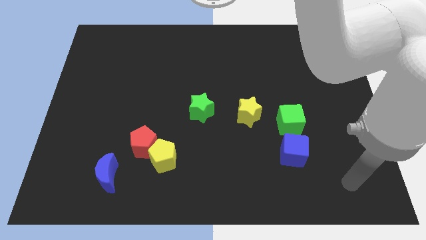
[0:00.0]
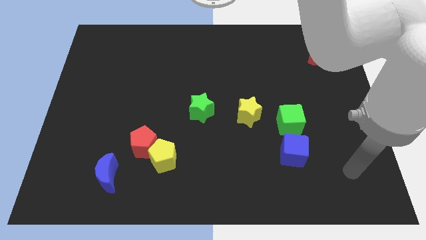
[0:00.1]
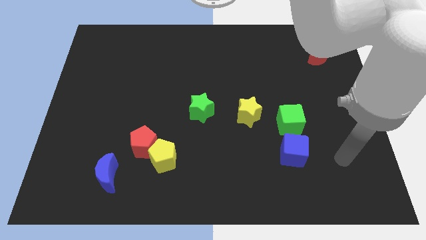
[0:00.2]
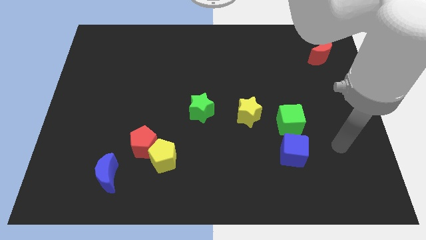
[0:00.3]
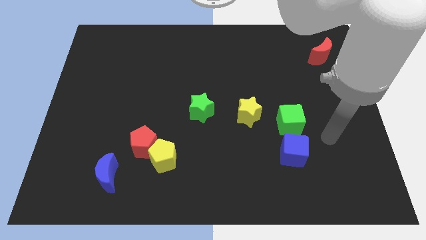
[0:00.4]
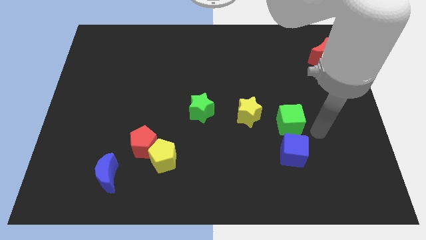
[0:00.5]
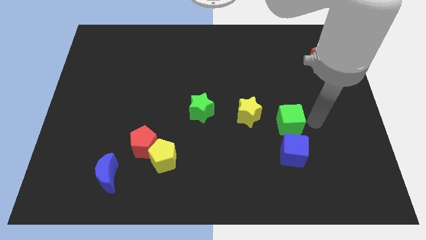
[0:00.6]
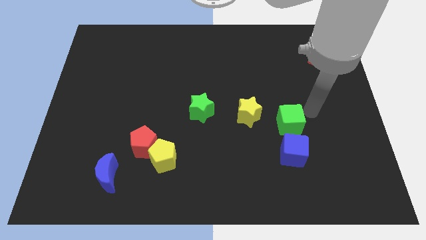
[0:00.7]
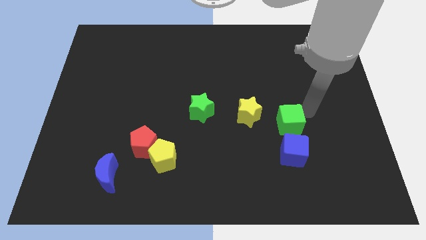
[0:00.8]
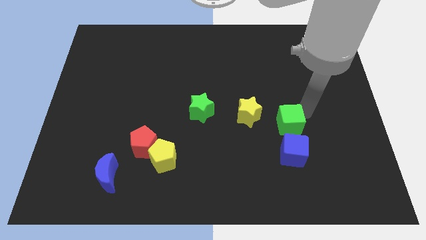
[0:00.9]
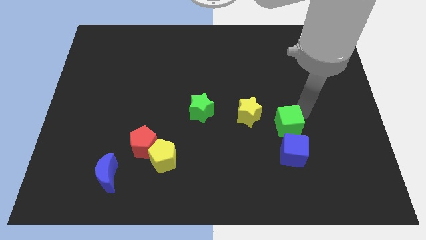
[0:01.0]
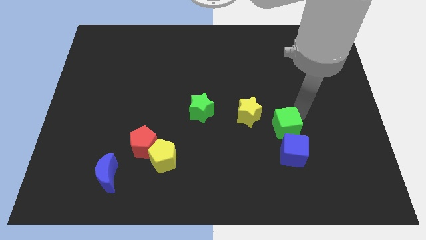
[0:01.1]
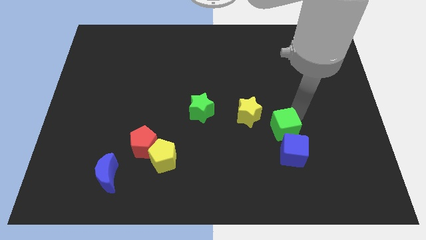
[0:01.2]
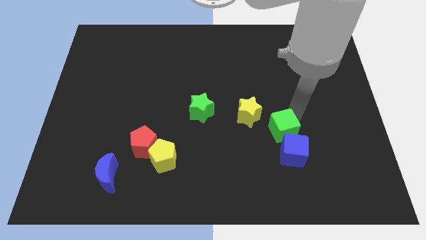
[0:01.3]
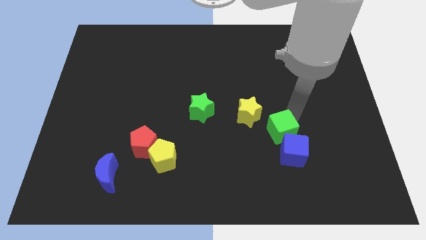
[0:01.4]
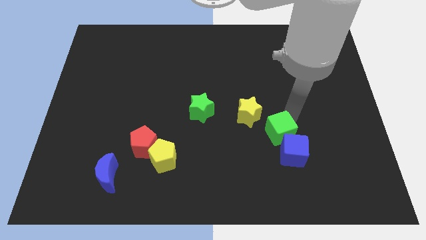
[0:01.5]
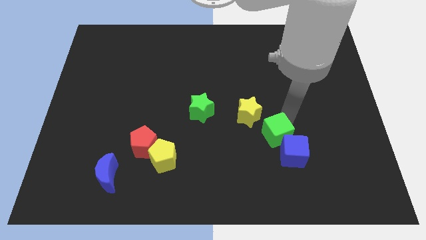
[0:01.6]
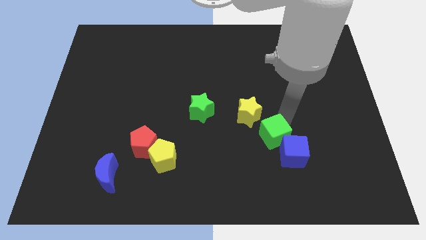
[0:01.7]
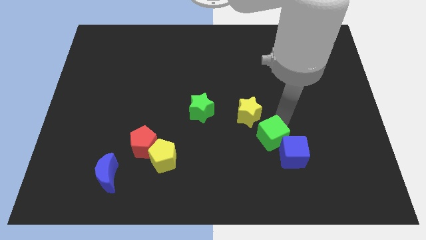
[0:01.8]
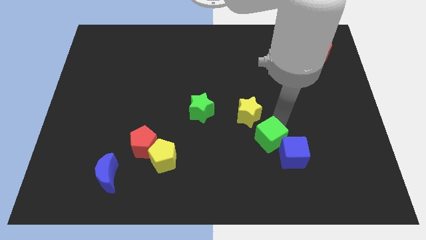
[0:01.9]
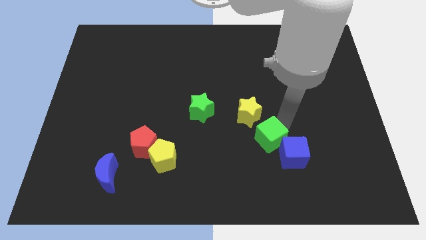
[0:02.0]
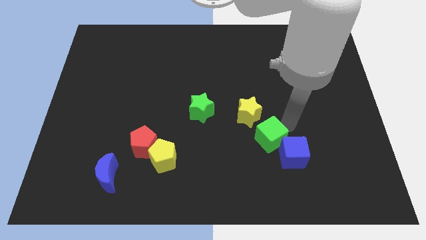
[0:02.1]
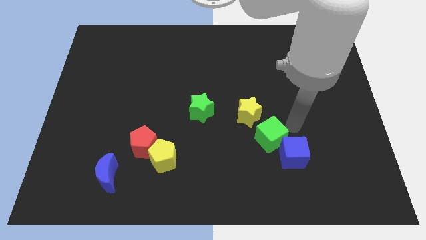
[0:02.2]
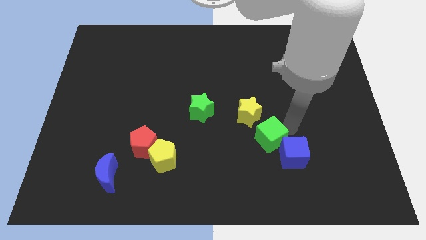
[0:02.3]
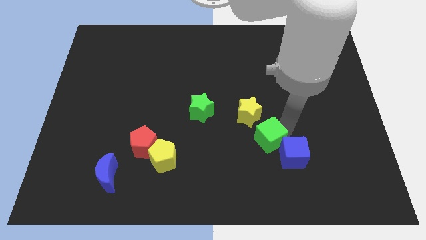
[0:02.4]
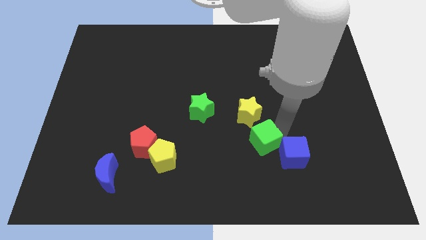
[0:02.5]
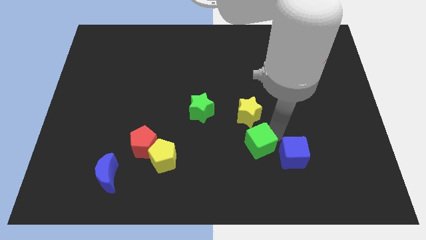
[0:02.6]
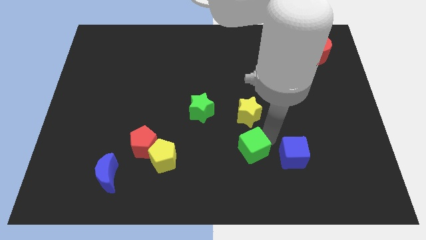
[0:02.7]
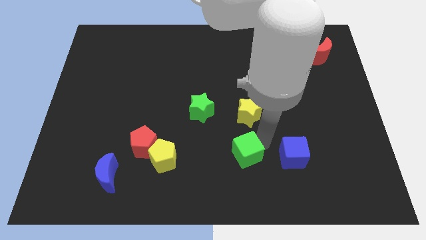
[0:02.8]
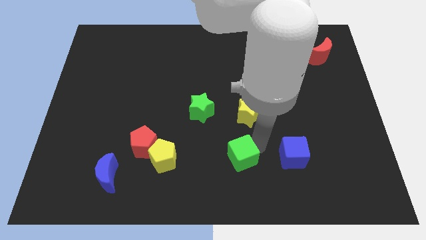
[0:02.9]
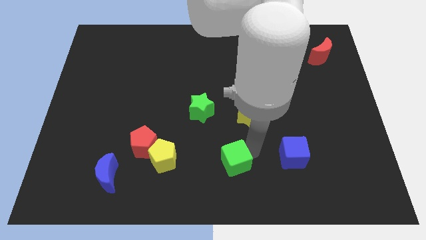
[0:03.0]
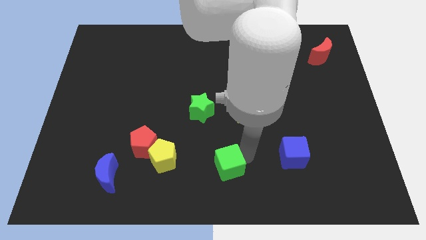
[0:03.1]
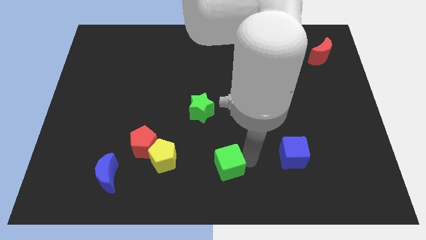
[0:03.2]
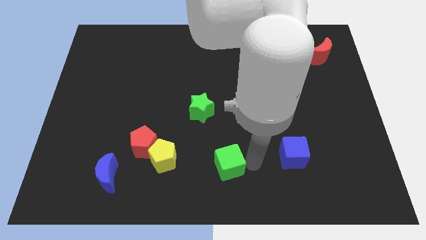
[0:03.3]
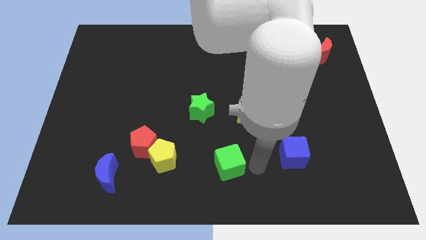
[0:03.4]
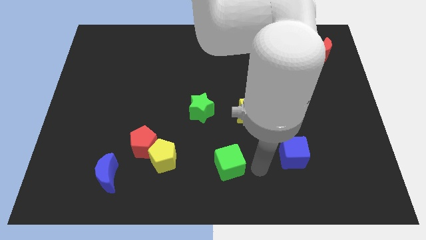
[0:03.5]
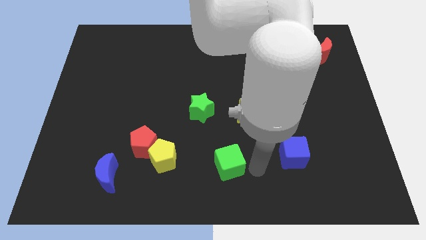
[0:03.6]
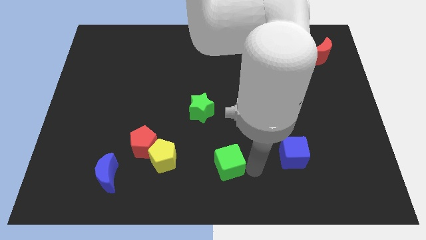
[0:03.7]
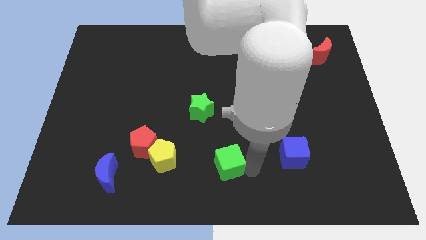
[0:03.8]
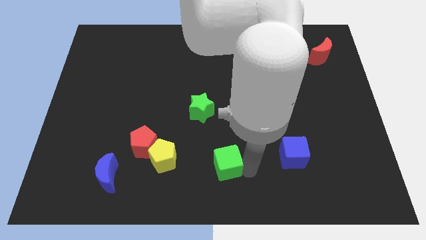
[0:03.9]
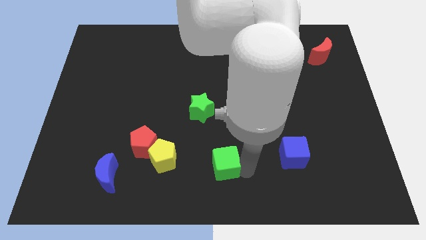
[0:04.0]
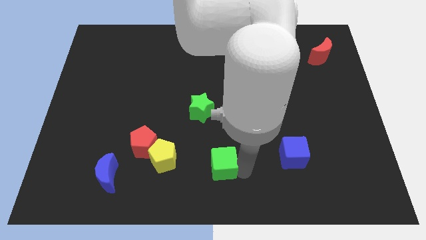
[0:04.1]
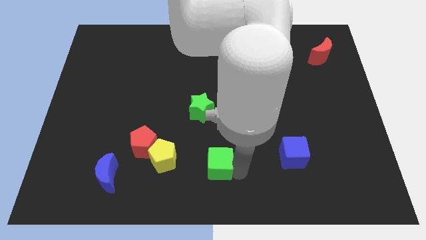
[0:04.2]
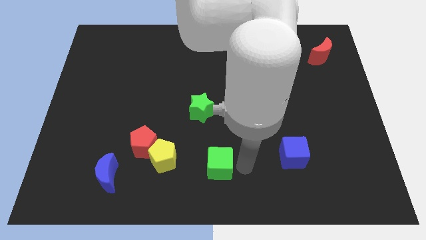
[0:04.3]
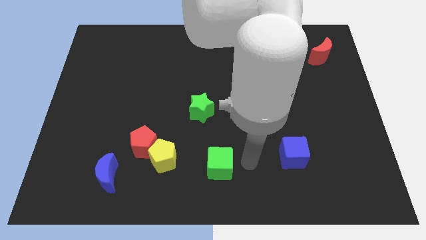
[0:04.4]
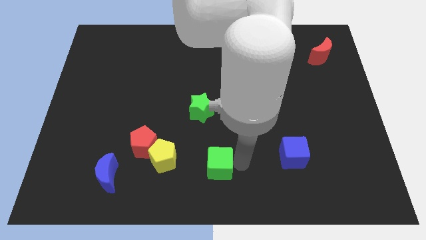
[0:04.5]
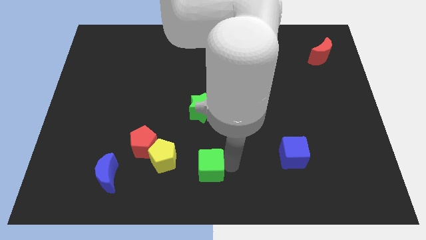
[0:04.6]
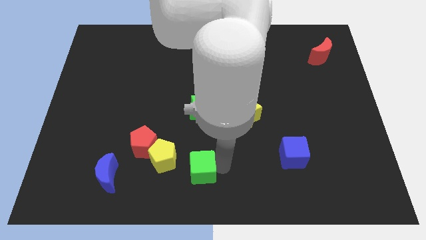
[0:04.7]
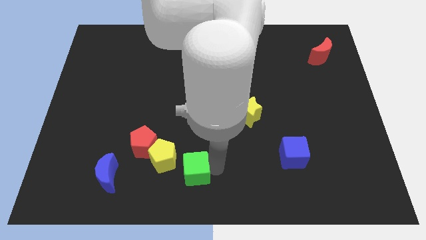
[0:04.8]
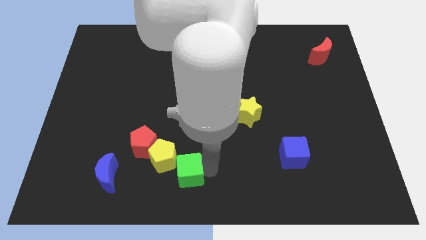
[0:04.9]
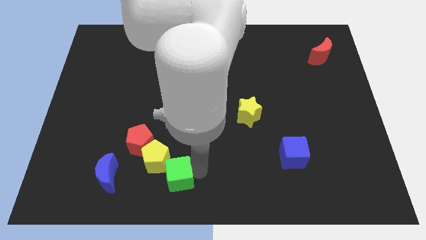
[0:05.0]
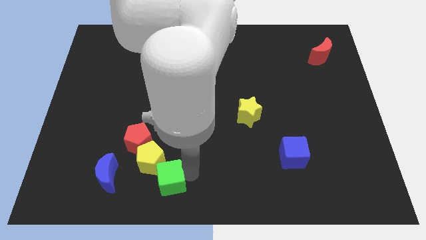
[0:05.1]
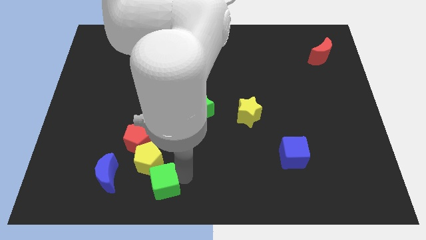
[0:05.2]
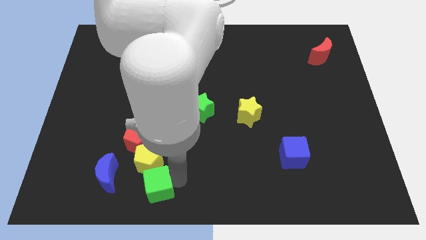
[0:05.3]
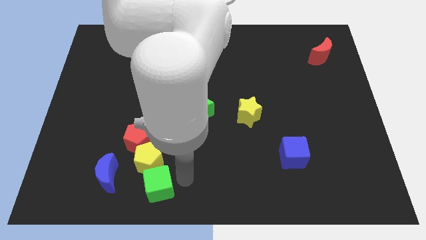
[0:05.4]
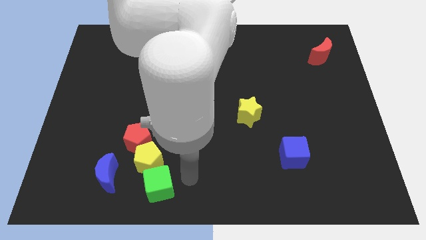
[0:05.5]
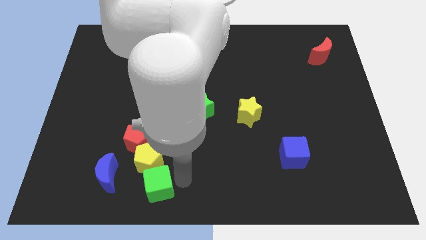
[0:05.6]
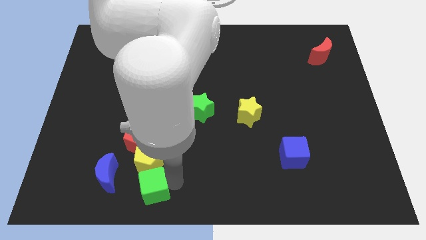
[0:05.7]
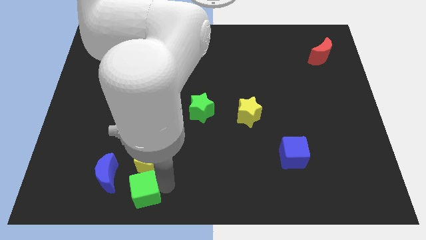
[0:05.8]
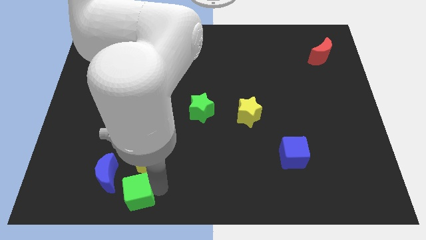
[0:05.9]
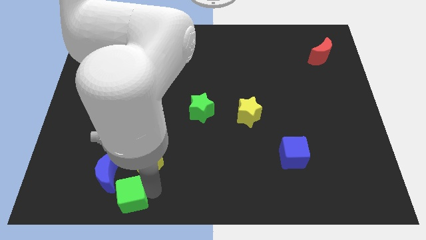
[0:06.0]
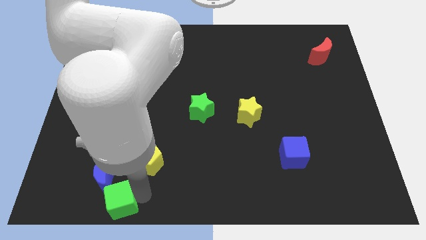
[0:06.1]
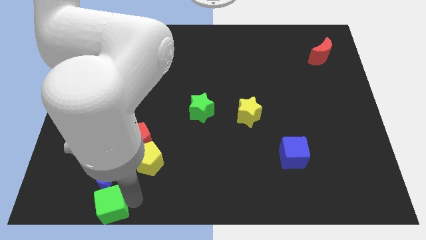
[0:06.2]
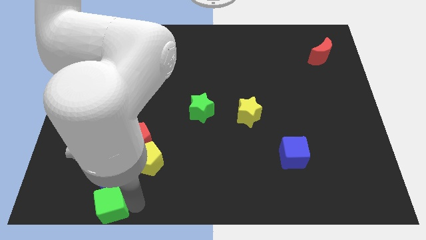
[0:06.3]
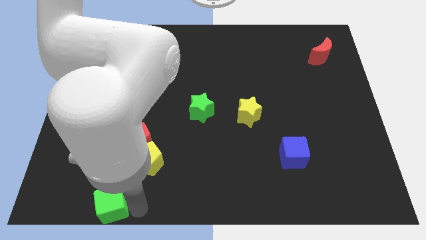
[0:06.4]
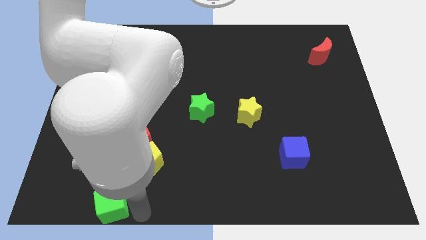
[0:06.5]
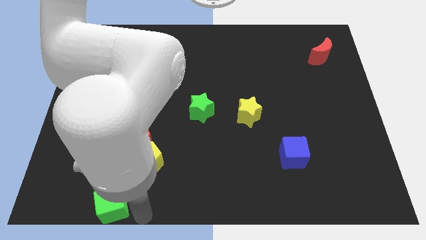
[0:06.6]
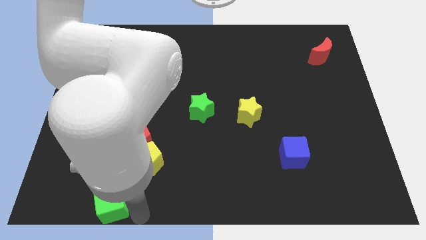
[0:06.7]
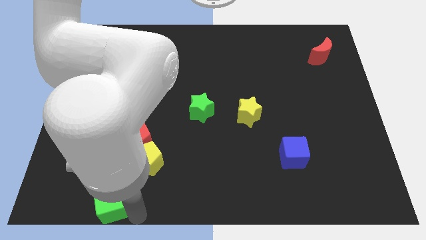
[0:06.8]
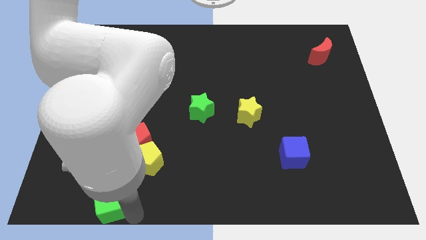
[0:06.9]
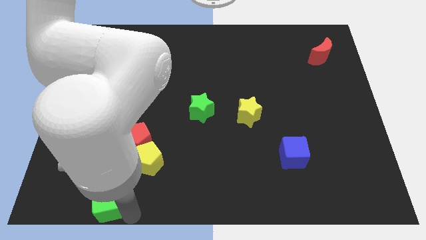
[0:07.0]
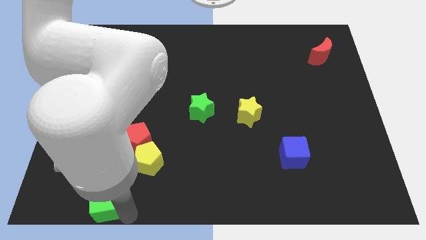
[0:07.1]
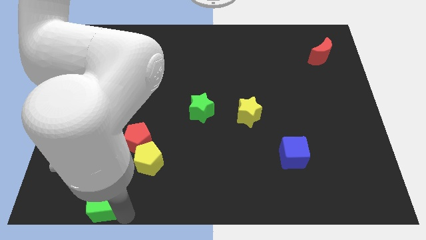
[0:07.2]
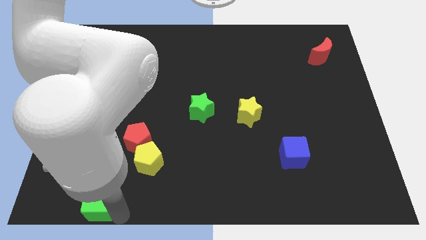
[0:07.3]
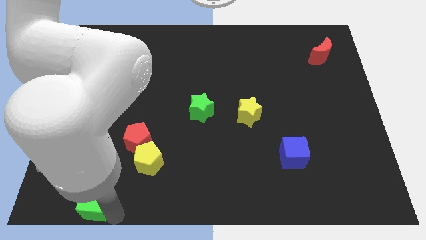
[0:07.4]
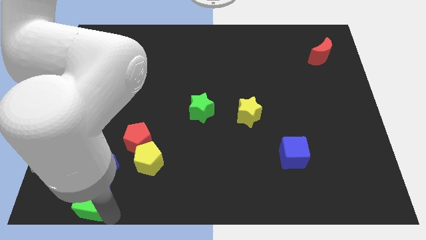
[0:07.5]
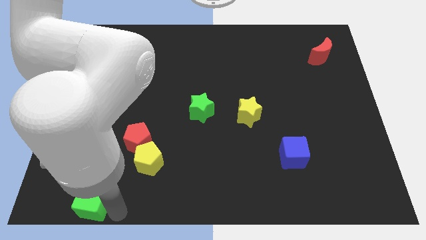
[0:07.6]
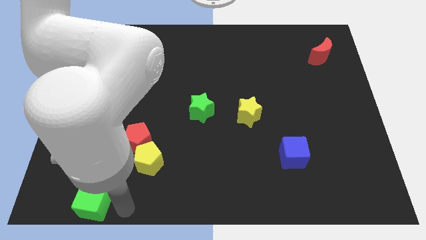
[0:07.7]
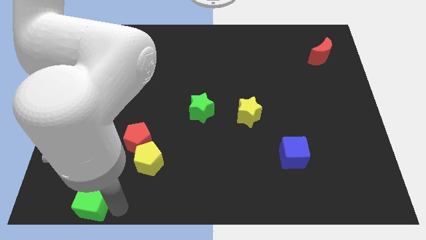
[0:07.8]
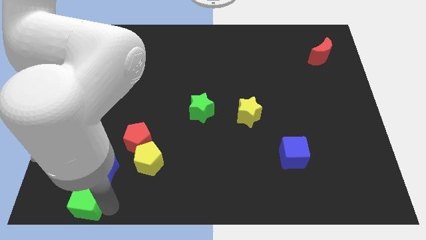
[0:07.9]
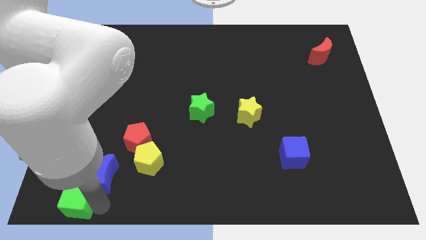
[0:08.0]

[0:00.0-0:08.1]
move the green cube to the bottom left of the board
